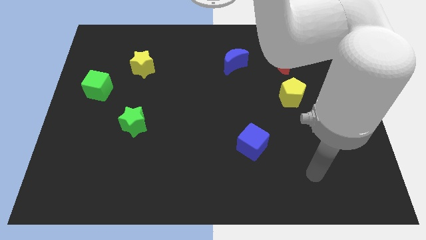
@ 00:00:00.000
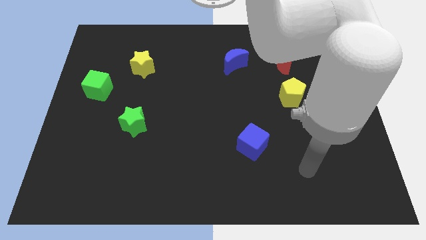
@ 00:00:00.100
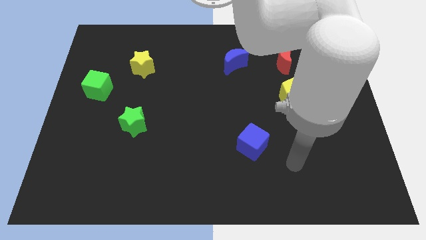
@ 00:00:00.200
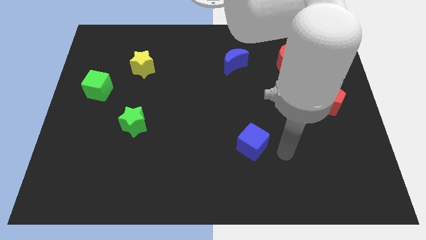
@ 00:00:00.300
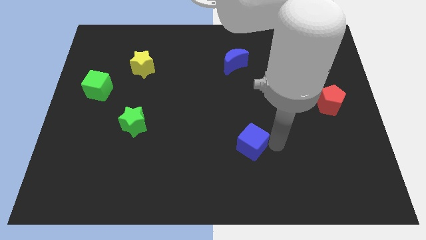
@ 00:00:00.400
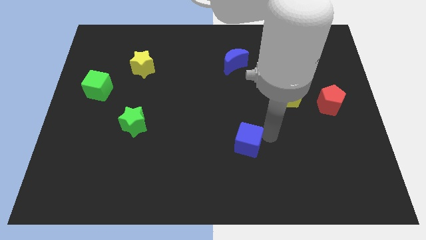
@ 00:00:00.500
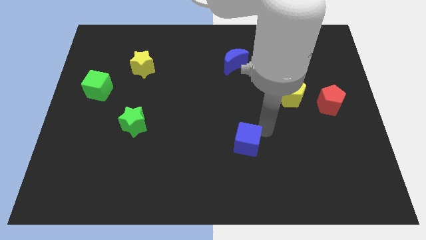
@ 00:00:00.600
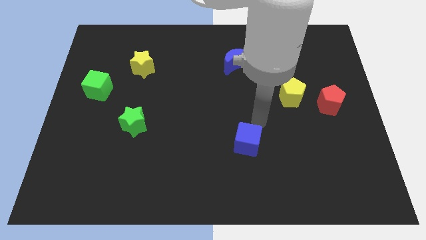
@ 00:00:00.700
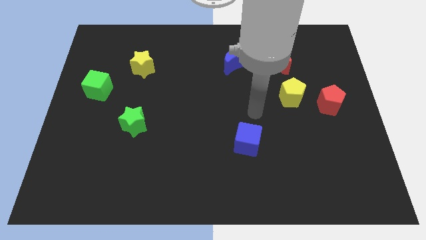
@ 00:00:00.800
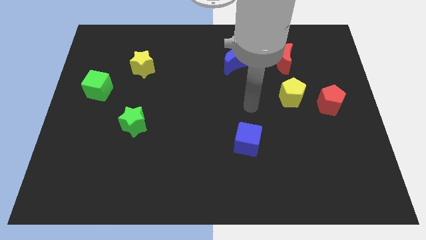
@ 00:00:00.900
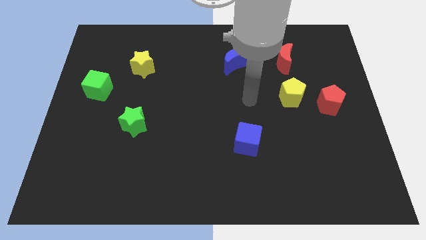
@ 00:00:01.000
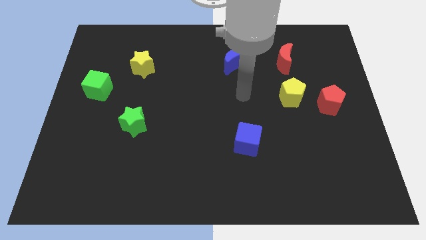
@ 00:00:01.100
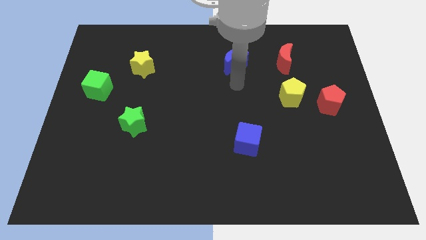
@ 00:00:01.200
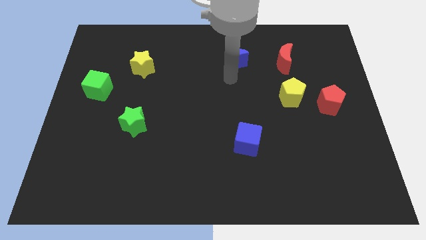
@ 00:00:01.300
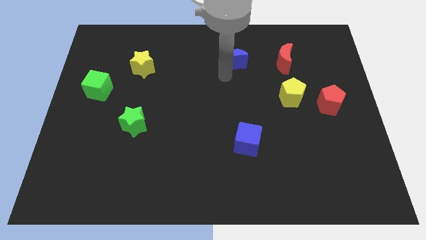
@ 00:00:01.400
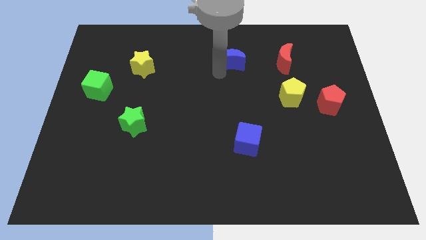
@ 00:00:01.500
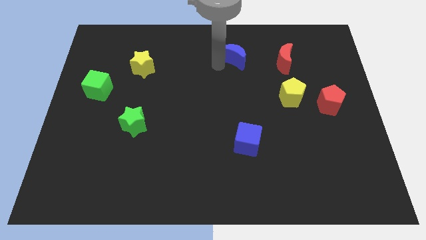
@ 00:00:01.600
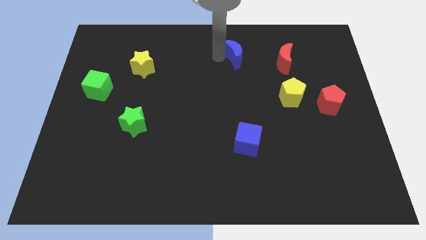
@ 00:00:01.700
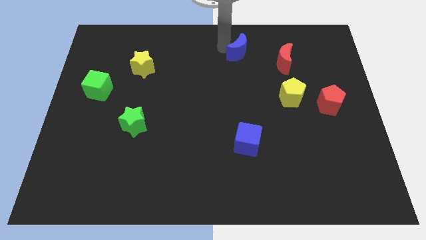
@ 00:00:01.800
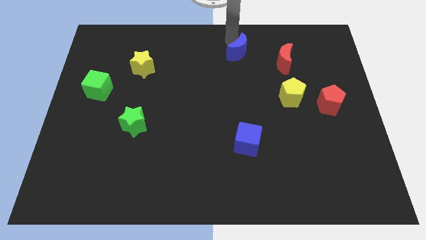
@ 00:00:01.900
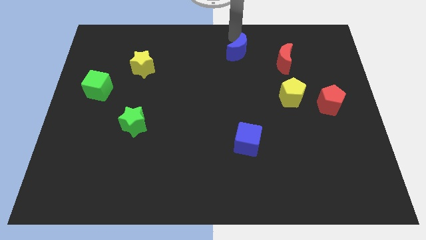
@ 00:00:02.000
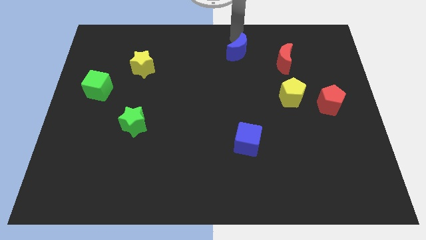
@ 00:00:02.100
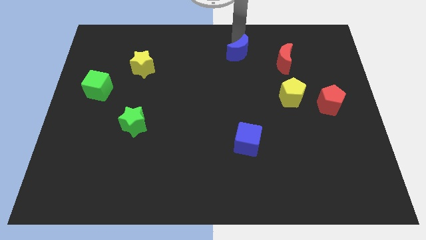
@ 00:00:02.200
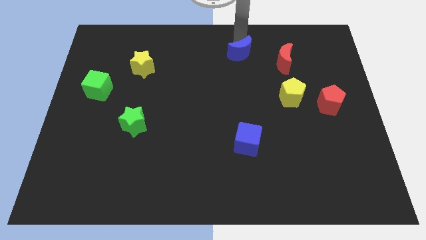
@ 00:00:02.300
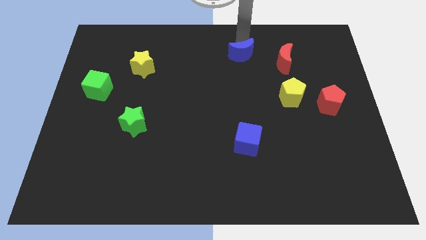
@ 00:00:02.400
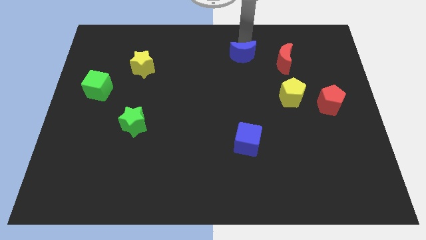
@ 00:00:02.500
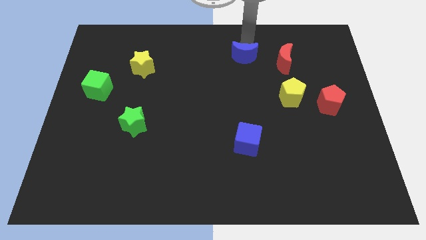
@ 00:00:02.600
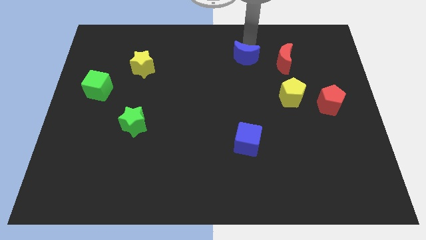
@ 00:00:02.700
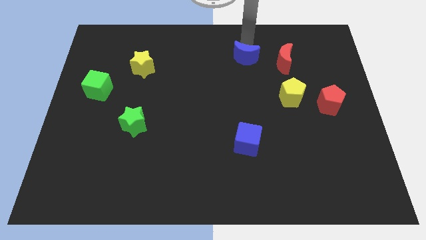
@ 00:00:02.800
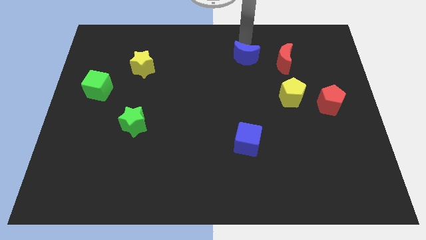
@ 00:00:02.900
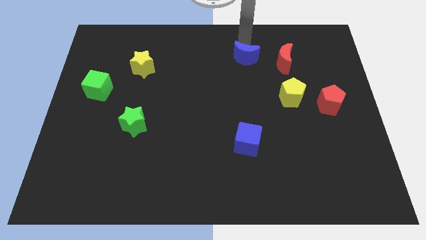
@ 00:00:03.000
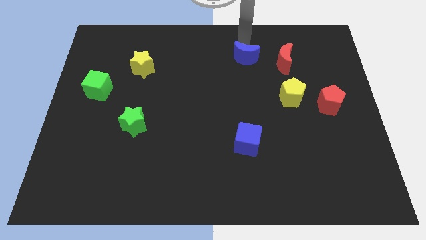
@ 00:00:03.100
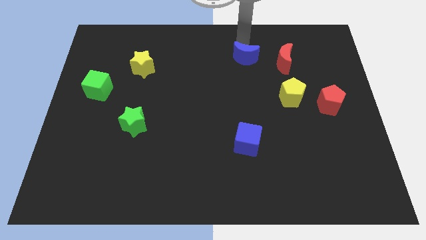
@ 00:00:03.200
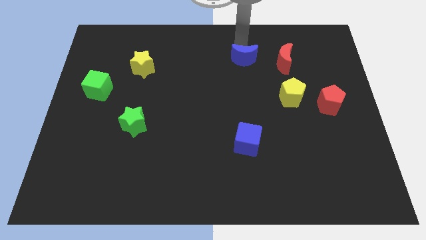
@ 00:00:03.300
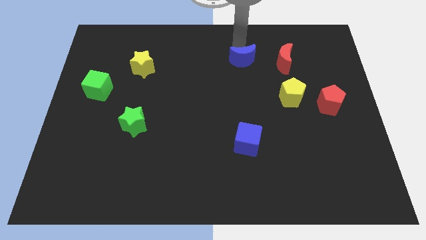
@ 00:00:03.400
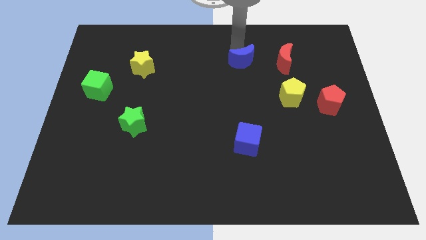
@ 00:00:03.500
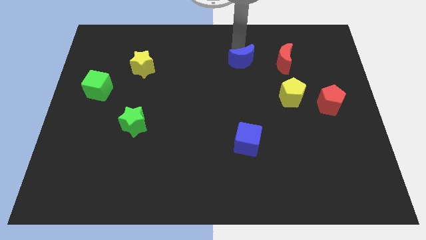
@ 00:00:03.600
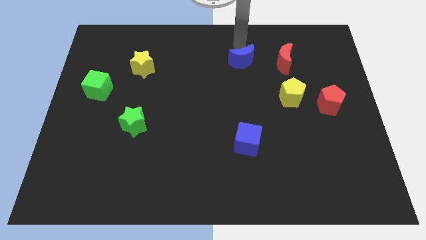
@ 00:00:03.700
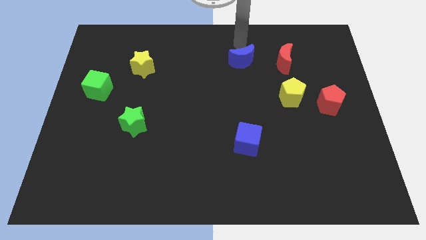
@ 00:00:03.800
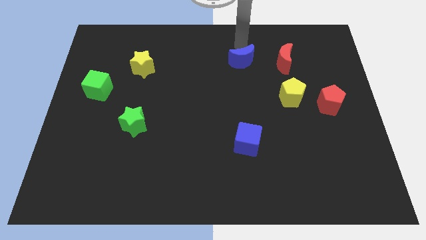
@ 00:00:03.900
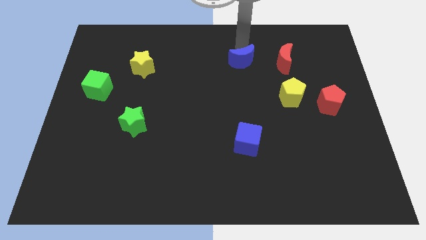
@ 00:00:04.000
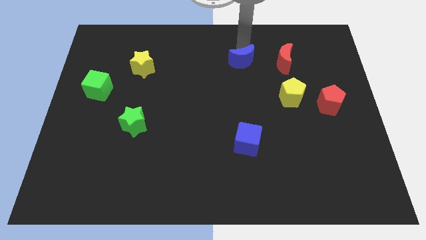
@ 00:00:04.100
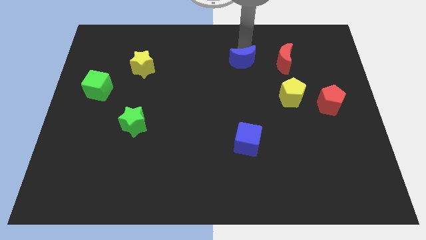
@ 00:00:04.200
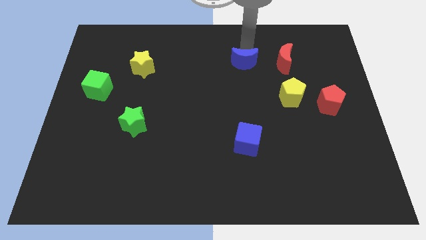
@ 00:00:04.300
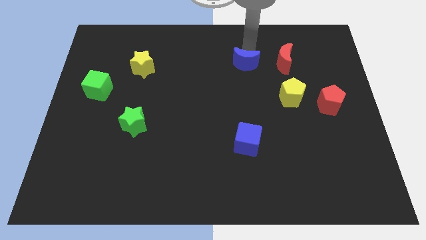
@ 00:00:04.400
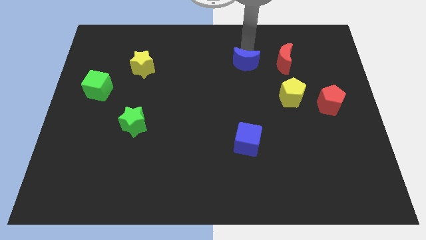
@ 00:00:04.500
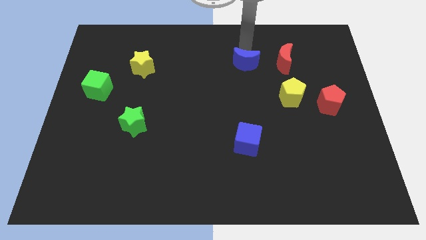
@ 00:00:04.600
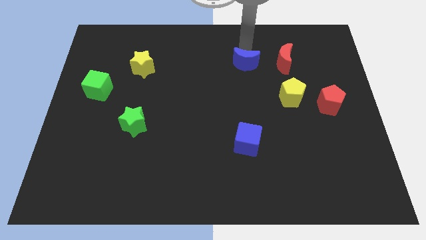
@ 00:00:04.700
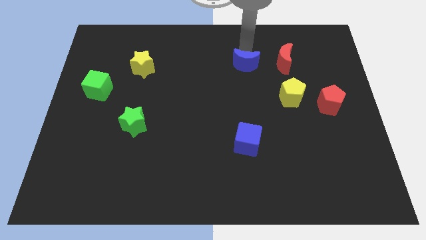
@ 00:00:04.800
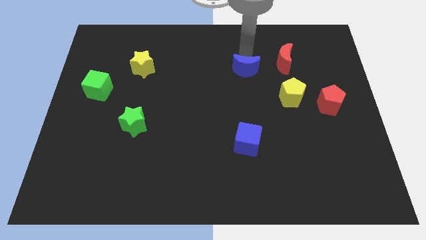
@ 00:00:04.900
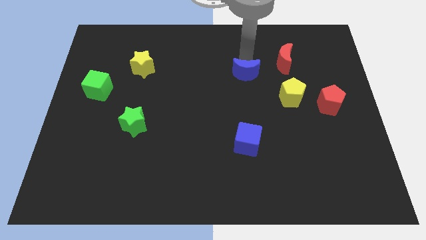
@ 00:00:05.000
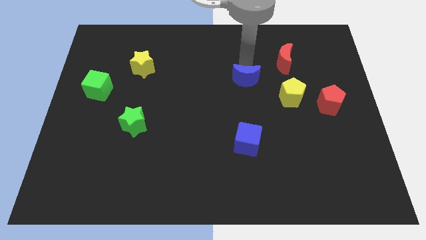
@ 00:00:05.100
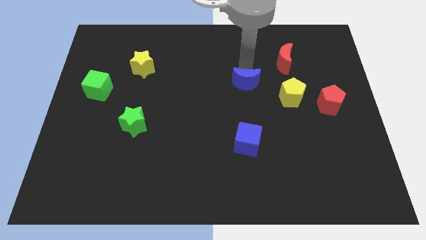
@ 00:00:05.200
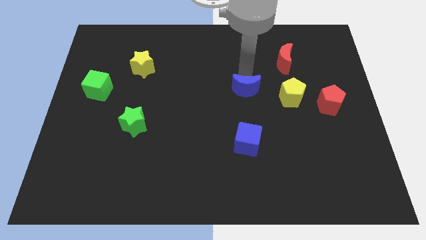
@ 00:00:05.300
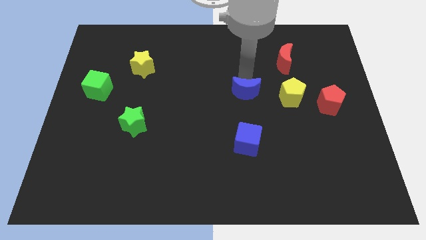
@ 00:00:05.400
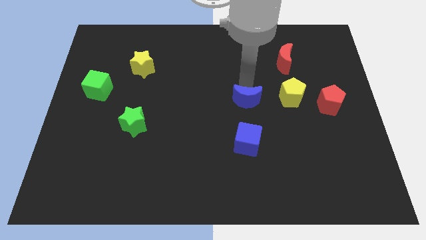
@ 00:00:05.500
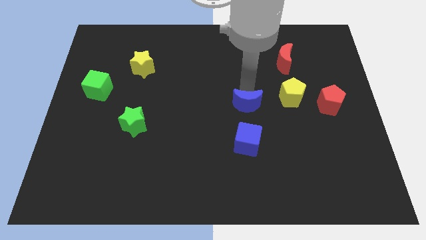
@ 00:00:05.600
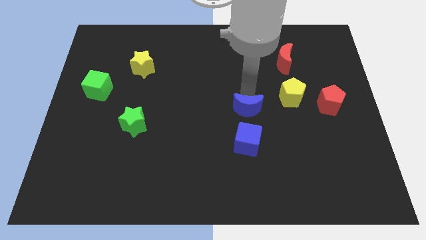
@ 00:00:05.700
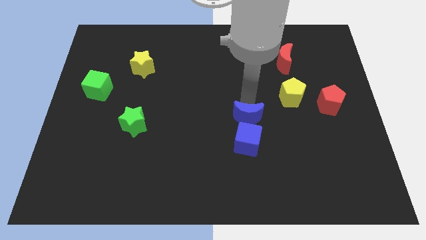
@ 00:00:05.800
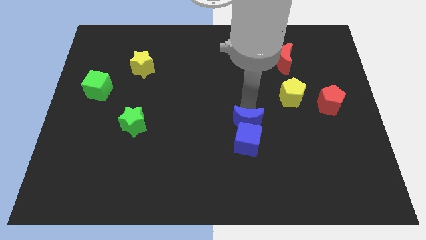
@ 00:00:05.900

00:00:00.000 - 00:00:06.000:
slide the blue moon next to the blue cube

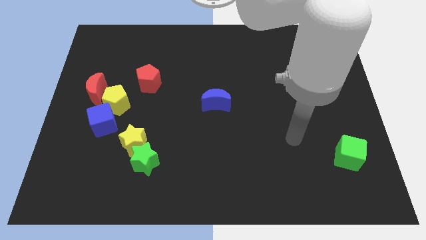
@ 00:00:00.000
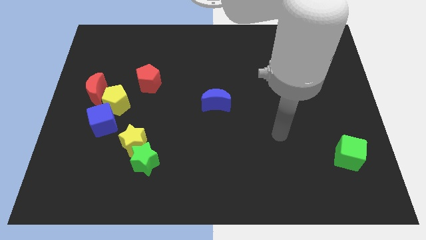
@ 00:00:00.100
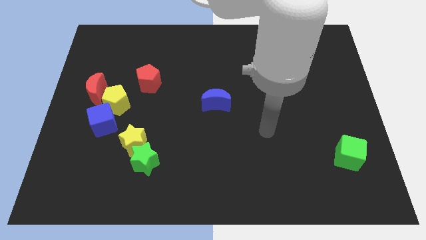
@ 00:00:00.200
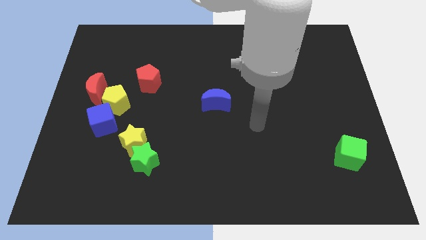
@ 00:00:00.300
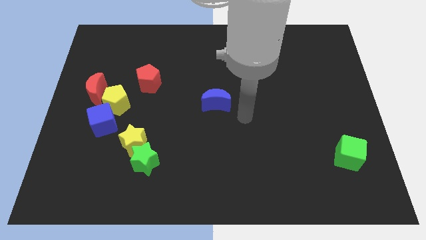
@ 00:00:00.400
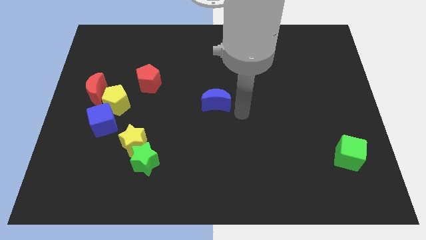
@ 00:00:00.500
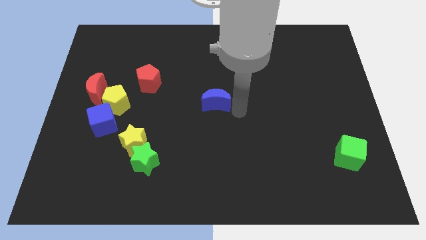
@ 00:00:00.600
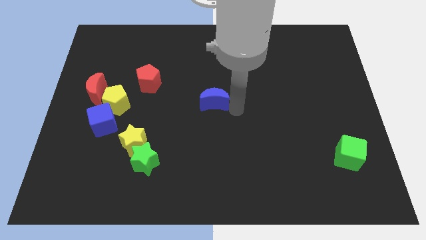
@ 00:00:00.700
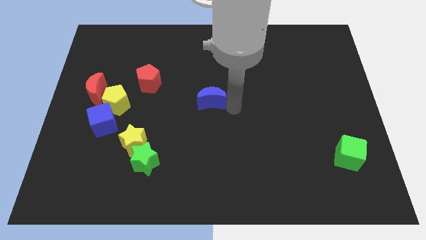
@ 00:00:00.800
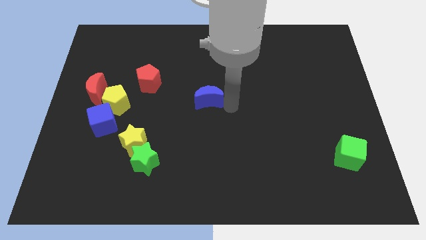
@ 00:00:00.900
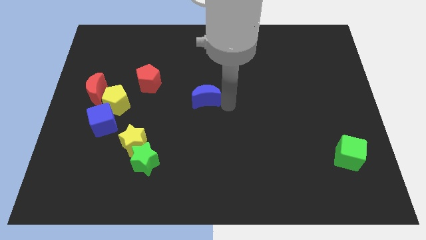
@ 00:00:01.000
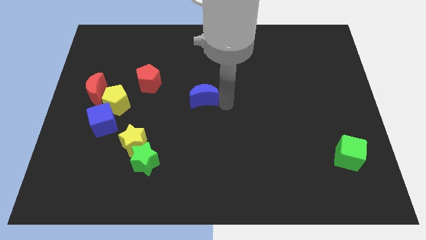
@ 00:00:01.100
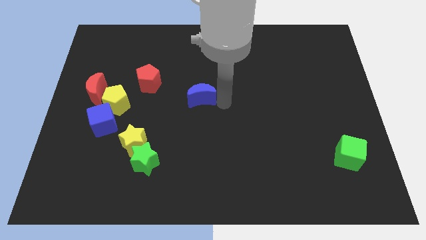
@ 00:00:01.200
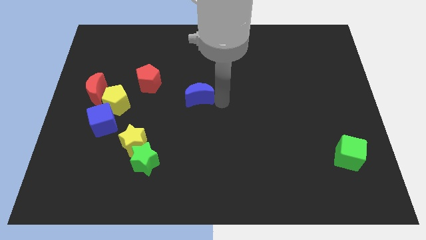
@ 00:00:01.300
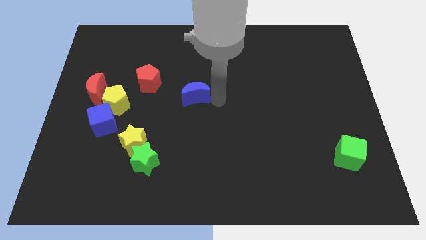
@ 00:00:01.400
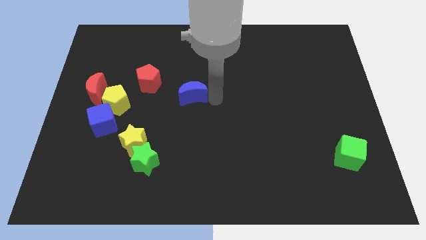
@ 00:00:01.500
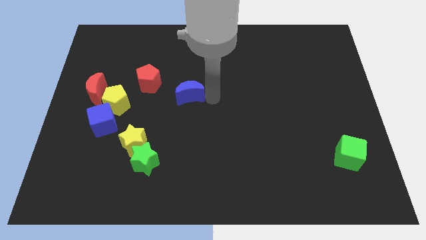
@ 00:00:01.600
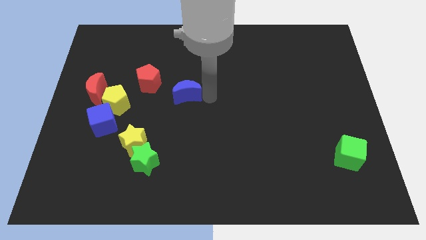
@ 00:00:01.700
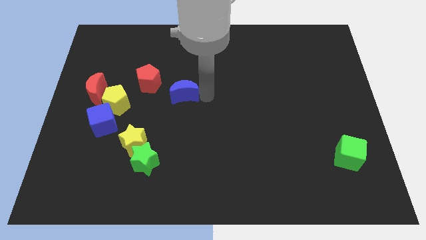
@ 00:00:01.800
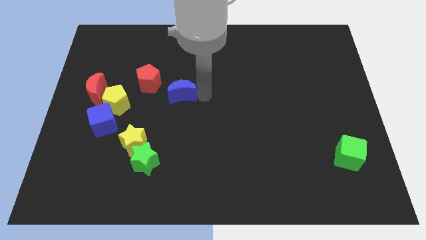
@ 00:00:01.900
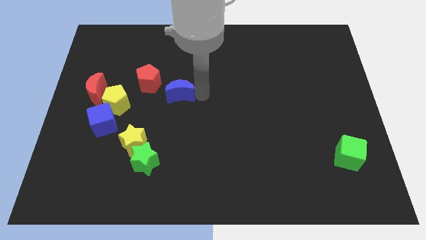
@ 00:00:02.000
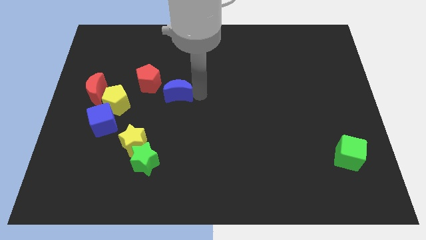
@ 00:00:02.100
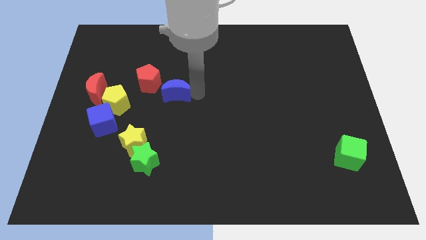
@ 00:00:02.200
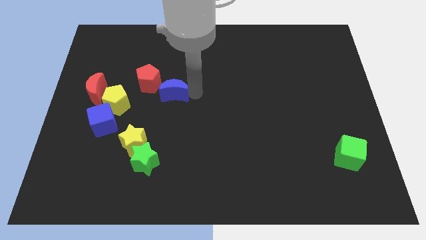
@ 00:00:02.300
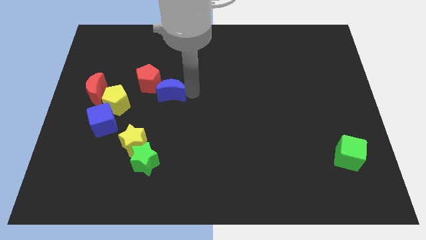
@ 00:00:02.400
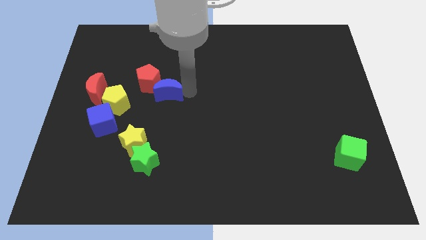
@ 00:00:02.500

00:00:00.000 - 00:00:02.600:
put the blue moon close to the red pentagon
